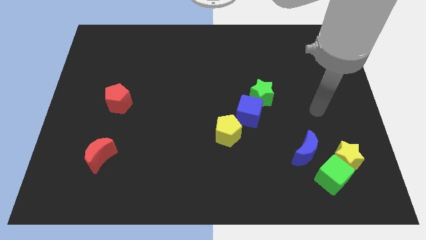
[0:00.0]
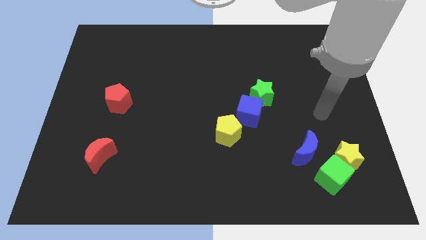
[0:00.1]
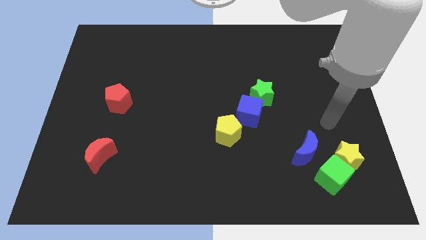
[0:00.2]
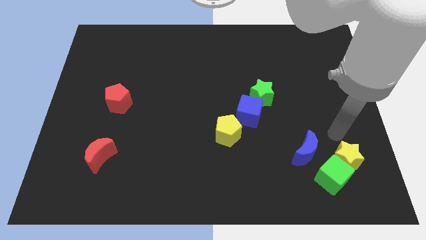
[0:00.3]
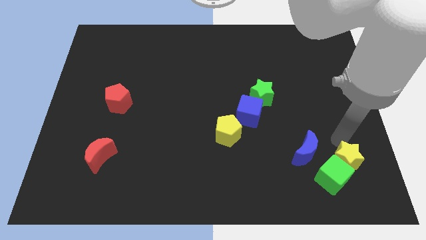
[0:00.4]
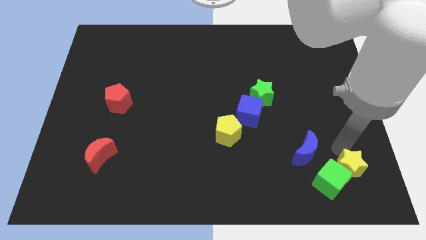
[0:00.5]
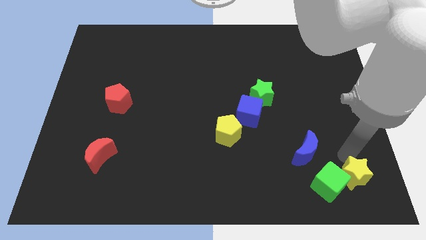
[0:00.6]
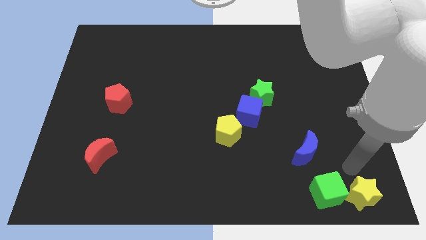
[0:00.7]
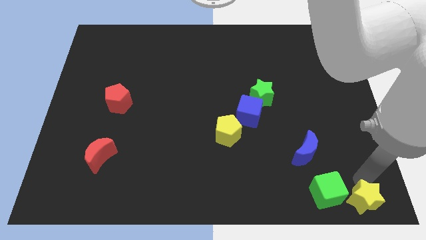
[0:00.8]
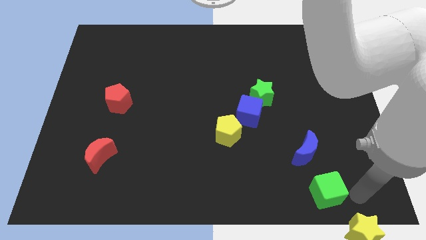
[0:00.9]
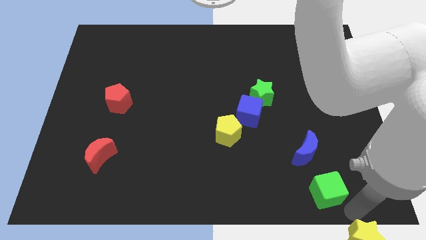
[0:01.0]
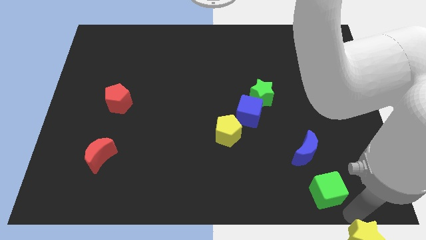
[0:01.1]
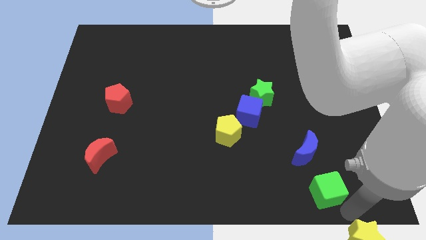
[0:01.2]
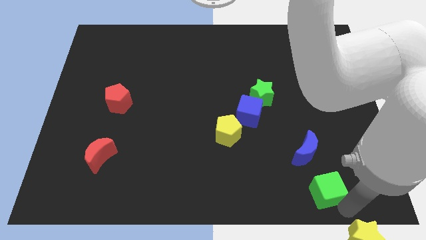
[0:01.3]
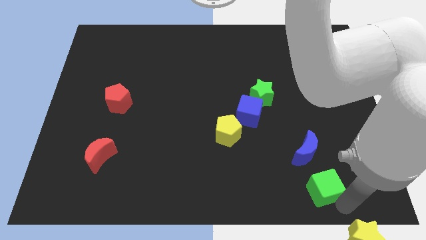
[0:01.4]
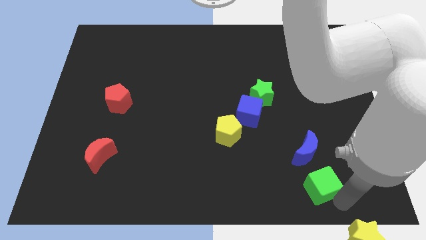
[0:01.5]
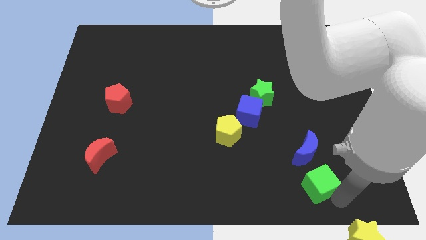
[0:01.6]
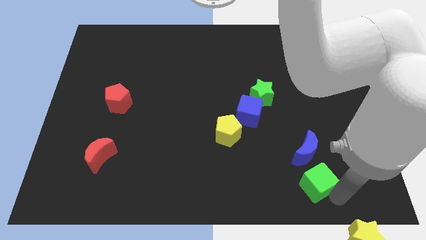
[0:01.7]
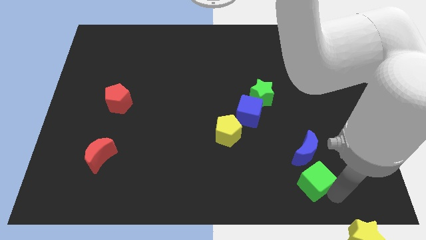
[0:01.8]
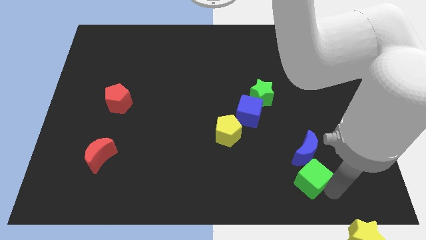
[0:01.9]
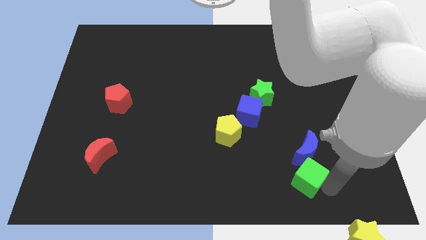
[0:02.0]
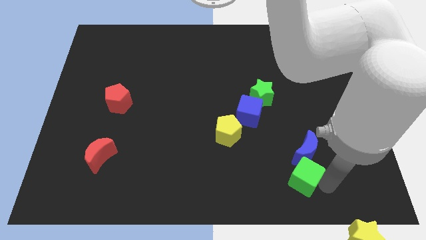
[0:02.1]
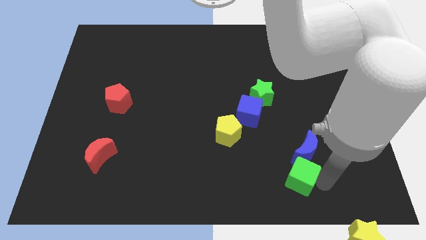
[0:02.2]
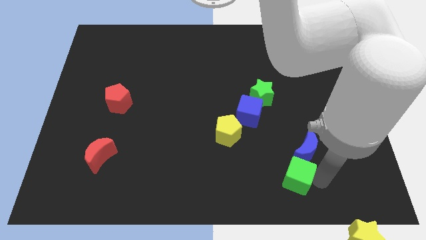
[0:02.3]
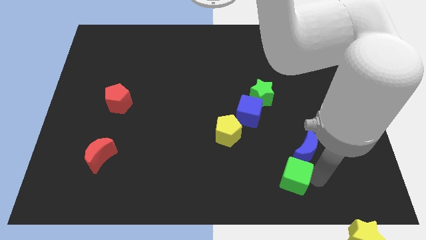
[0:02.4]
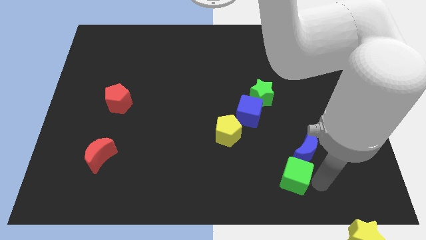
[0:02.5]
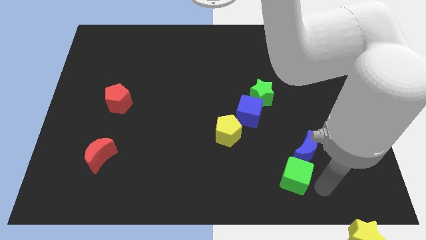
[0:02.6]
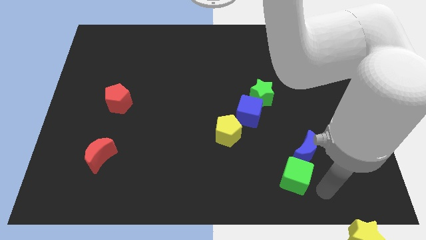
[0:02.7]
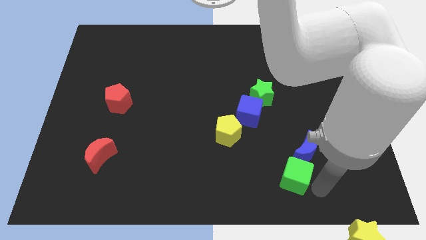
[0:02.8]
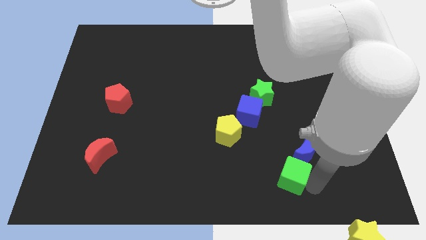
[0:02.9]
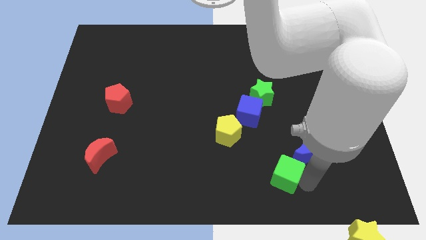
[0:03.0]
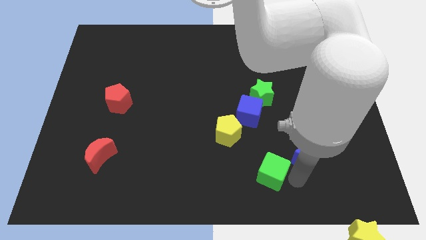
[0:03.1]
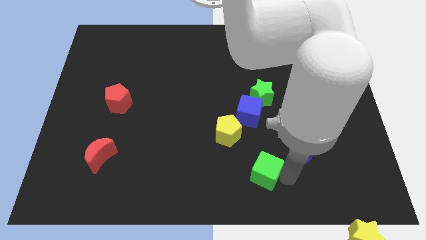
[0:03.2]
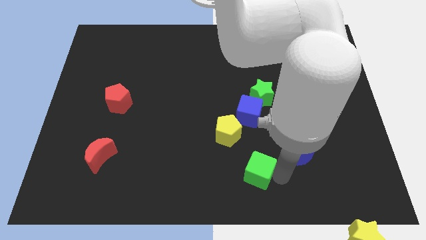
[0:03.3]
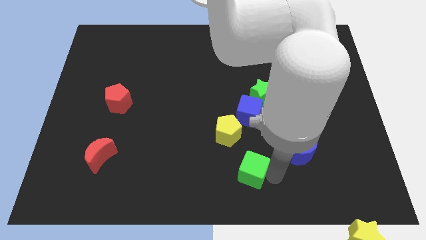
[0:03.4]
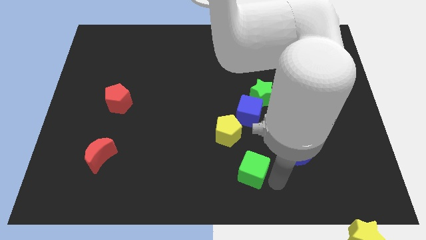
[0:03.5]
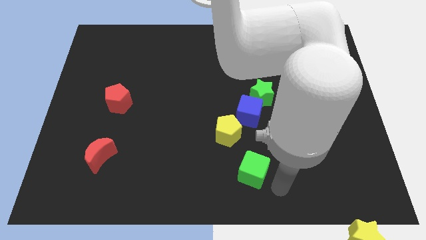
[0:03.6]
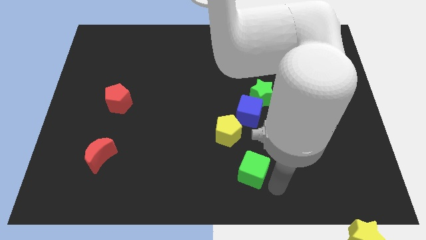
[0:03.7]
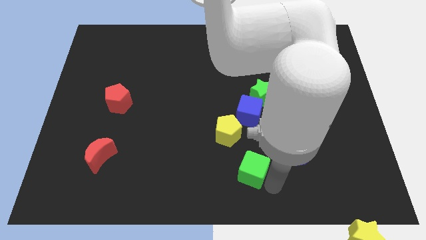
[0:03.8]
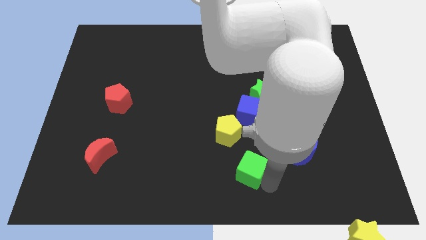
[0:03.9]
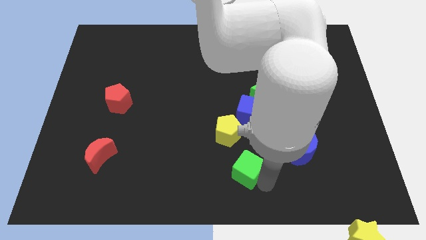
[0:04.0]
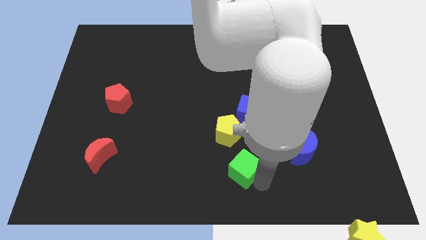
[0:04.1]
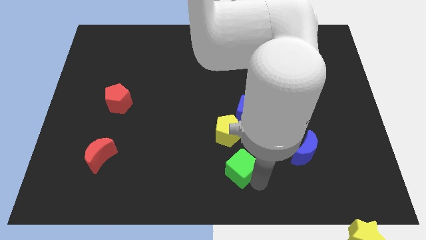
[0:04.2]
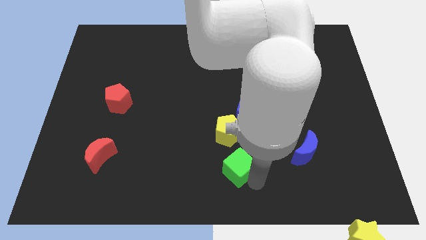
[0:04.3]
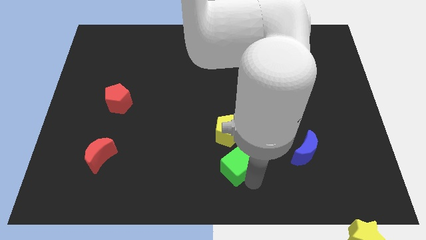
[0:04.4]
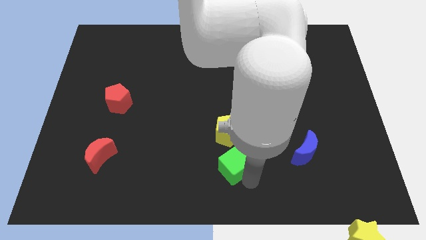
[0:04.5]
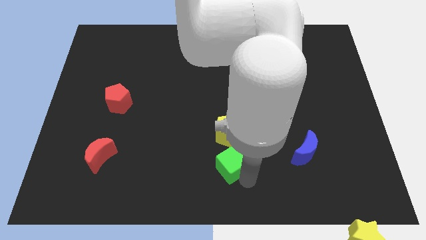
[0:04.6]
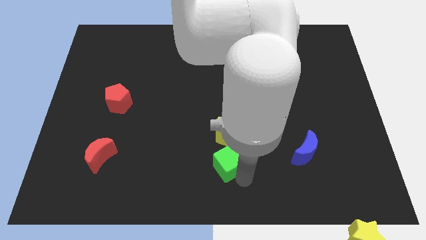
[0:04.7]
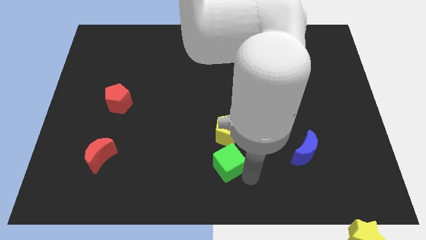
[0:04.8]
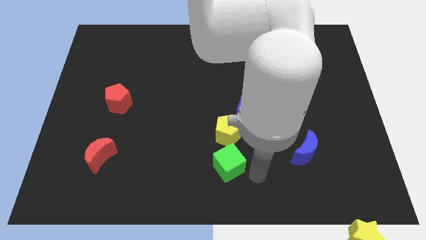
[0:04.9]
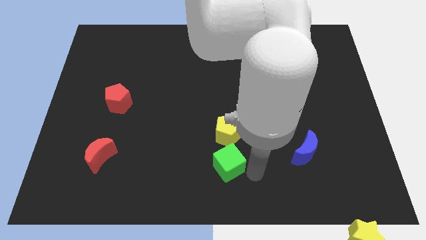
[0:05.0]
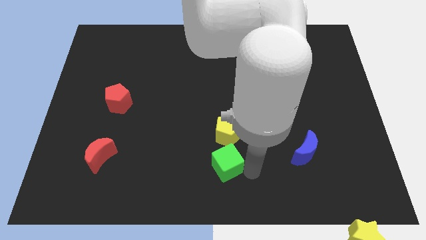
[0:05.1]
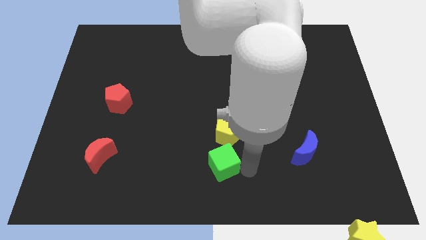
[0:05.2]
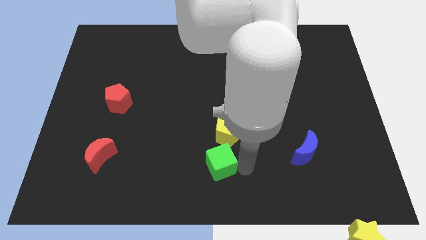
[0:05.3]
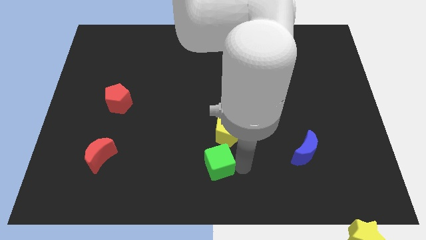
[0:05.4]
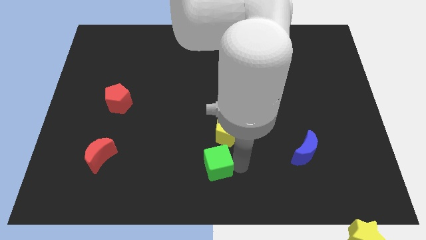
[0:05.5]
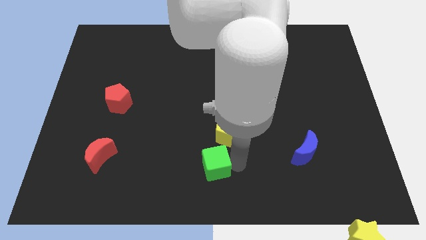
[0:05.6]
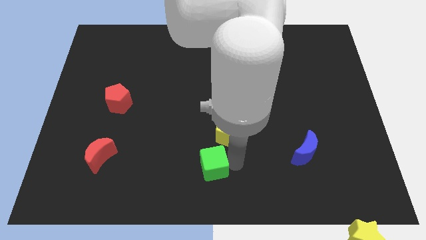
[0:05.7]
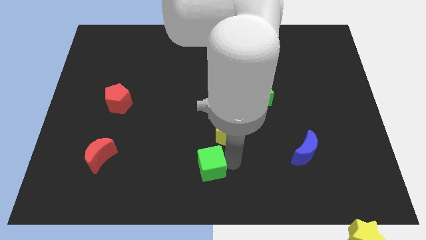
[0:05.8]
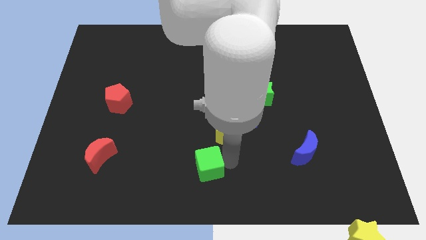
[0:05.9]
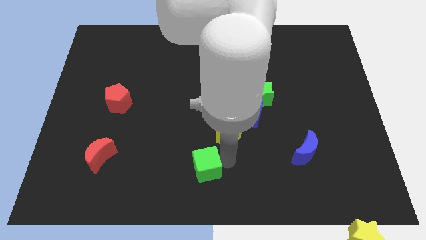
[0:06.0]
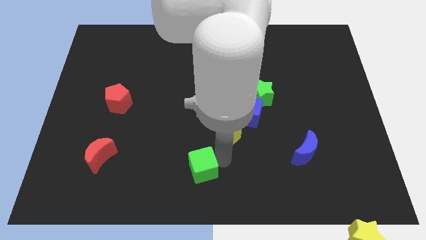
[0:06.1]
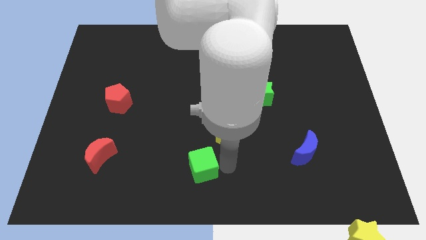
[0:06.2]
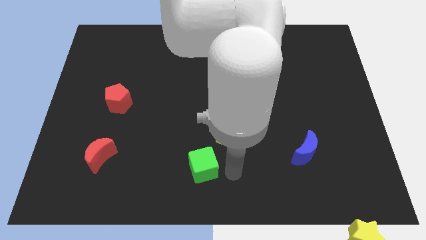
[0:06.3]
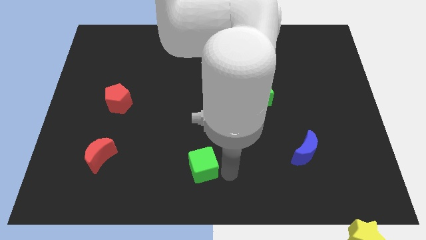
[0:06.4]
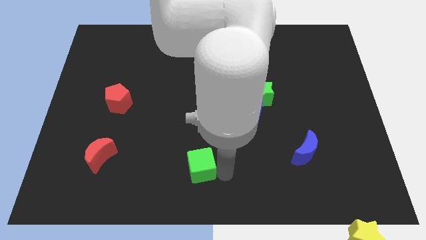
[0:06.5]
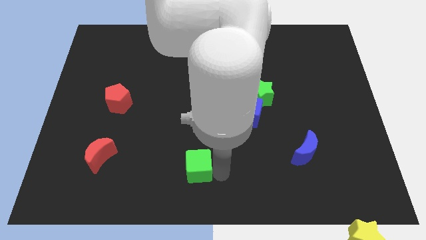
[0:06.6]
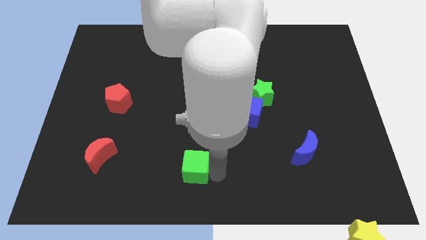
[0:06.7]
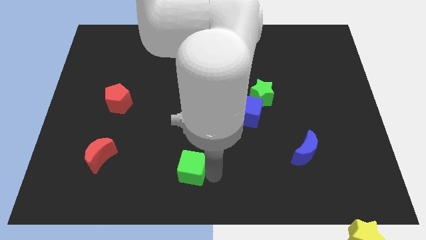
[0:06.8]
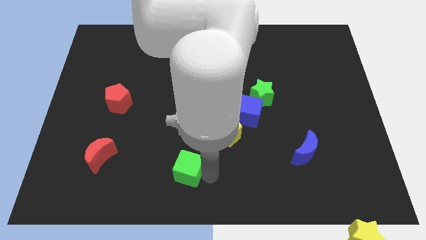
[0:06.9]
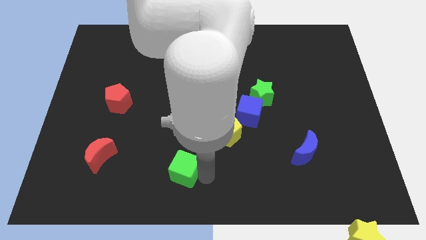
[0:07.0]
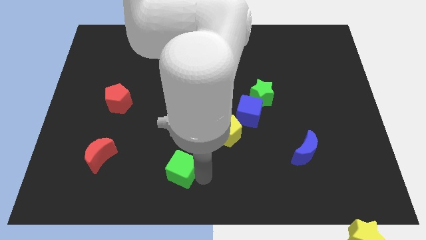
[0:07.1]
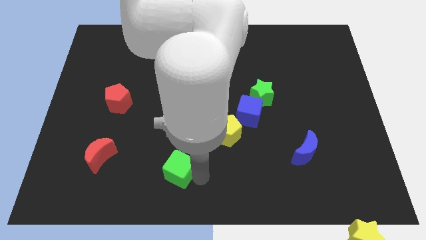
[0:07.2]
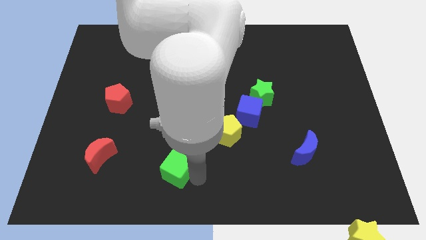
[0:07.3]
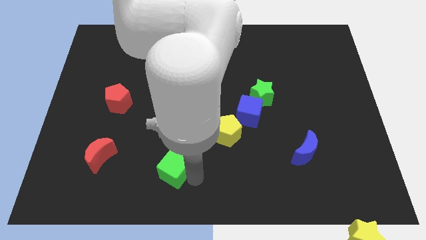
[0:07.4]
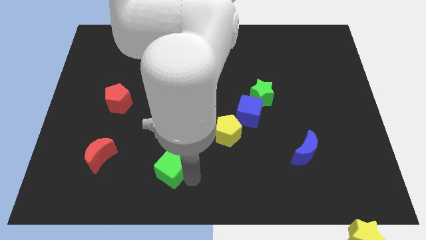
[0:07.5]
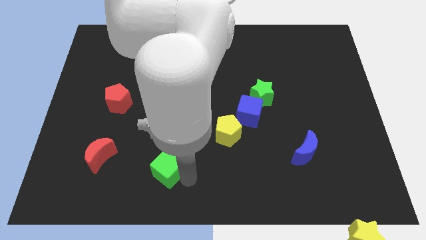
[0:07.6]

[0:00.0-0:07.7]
slide the green cube just right of the red moon
